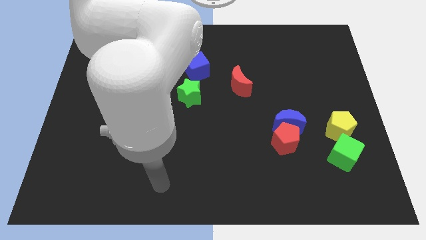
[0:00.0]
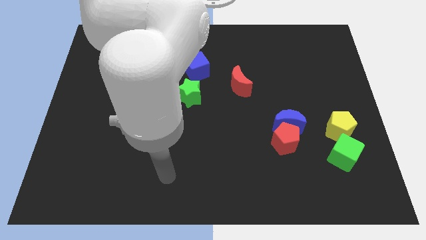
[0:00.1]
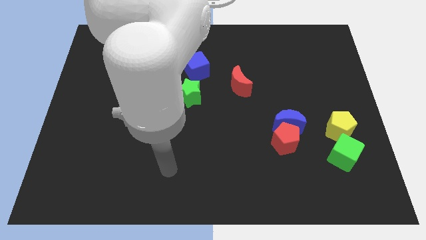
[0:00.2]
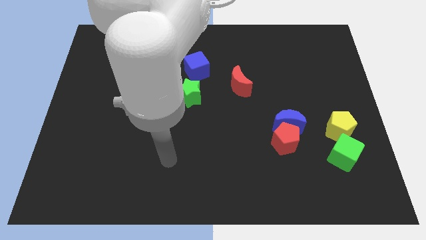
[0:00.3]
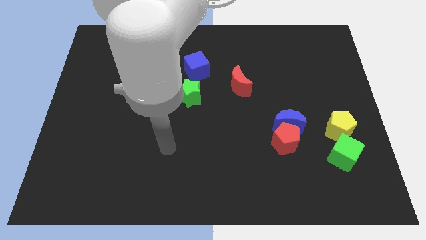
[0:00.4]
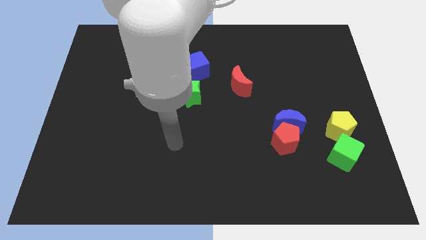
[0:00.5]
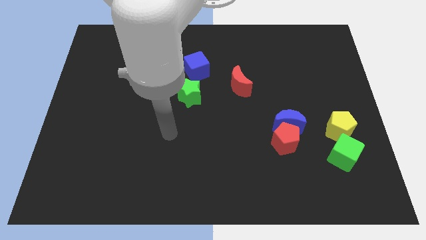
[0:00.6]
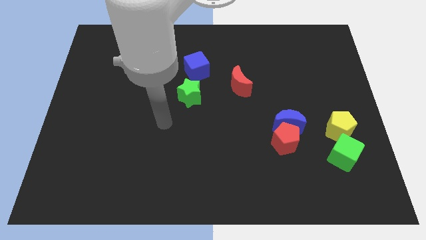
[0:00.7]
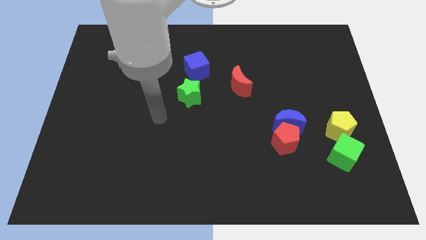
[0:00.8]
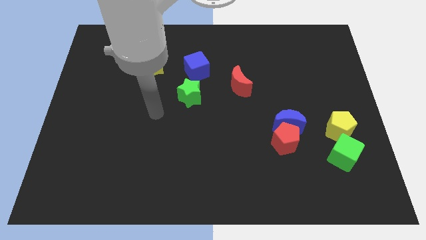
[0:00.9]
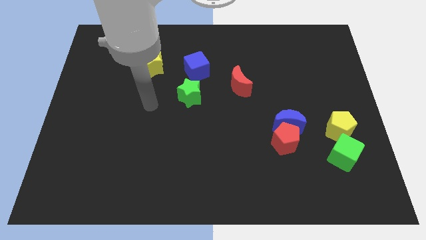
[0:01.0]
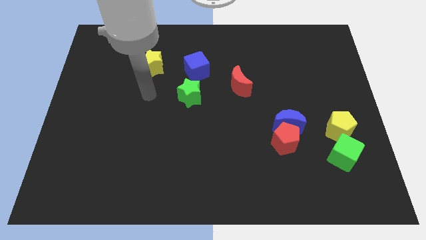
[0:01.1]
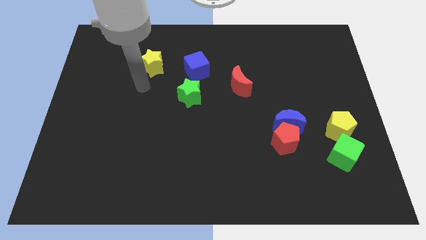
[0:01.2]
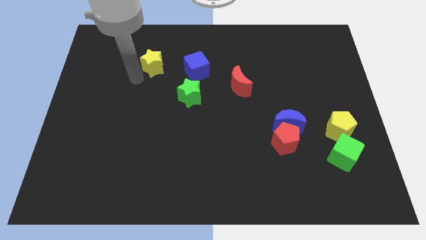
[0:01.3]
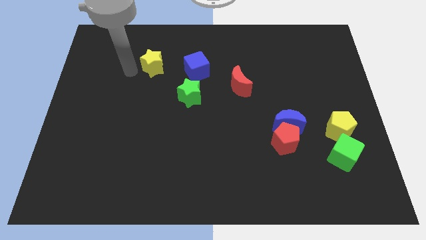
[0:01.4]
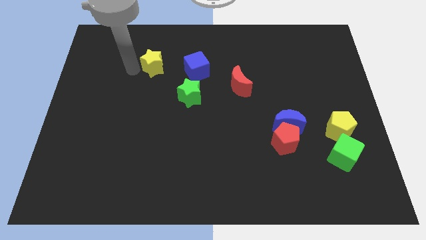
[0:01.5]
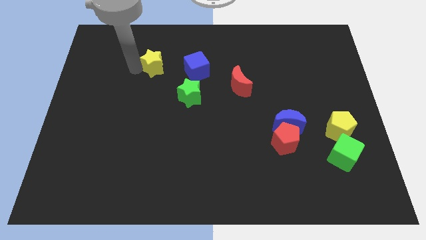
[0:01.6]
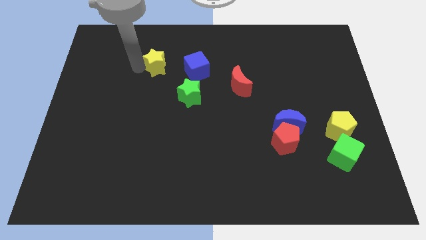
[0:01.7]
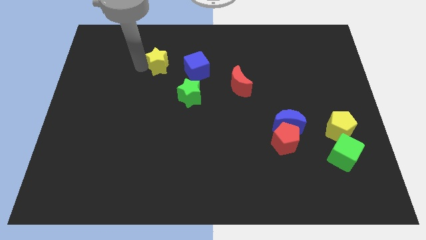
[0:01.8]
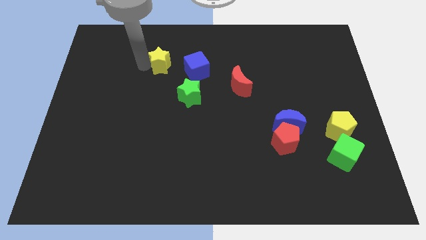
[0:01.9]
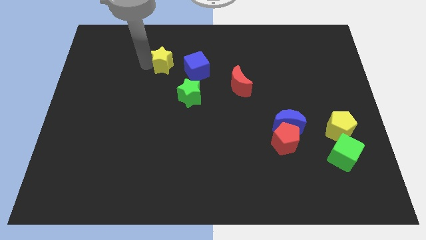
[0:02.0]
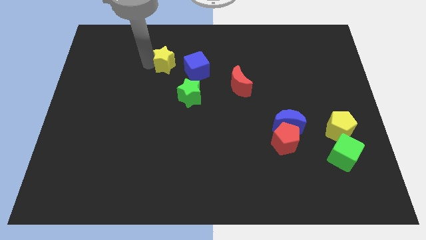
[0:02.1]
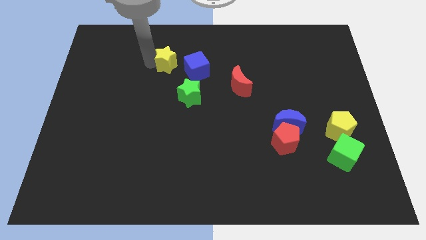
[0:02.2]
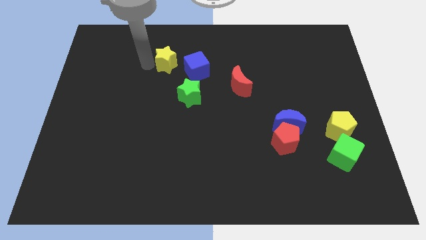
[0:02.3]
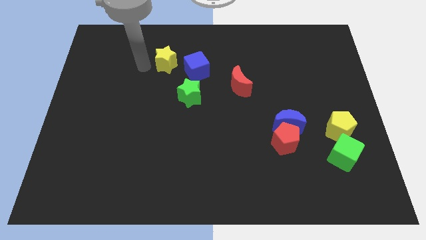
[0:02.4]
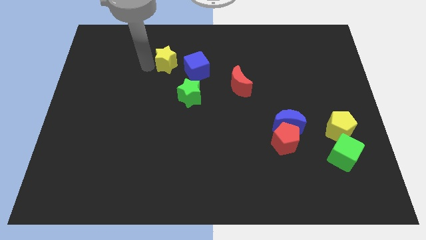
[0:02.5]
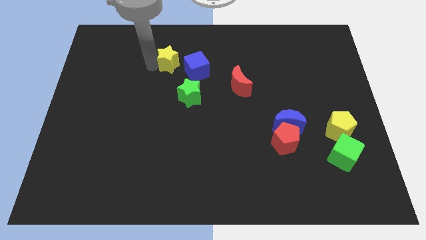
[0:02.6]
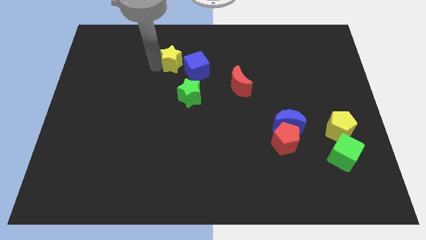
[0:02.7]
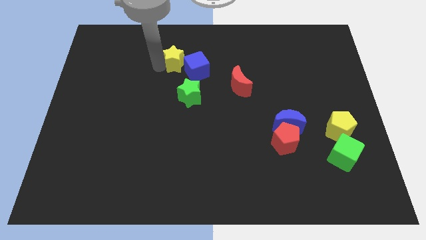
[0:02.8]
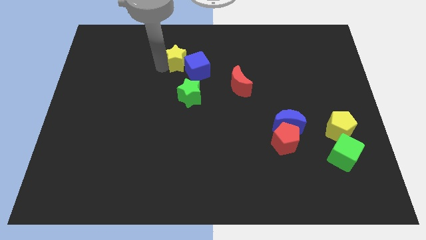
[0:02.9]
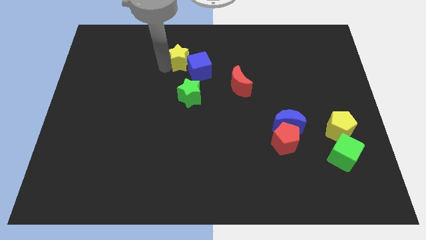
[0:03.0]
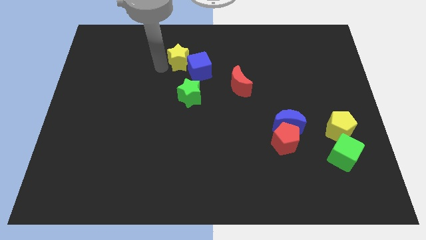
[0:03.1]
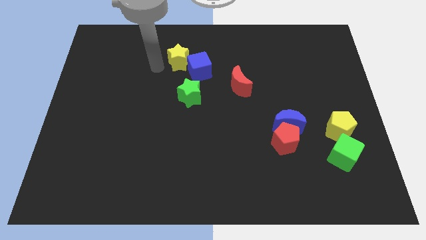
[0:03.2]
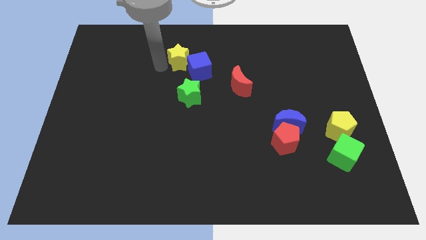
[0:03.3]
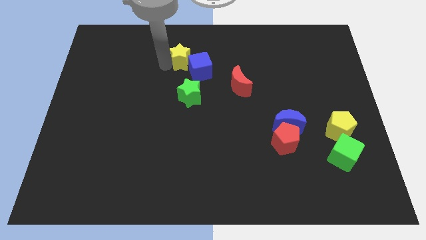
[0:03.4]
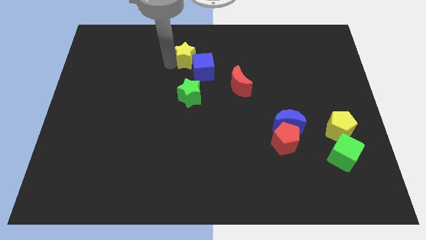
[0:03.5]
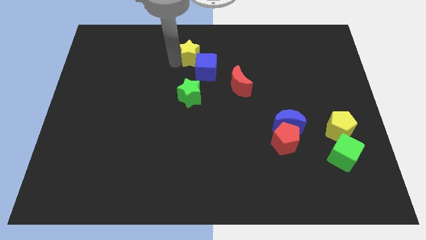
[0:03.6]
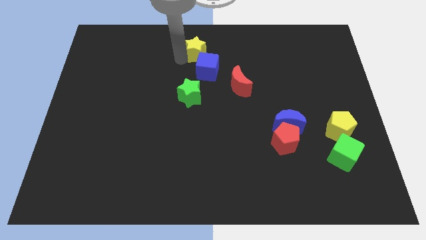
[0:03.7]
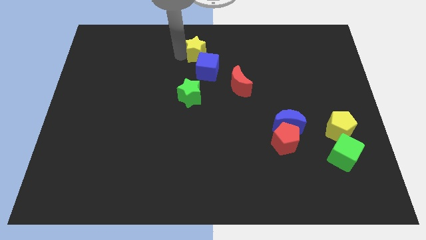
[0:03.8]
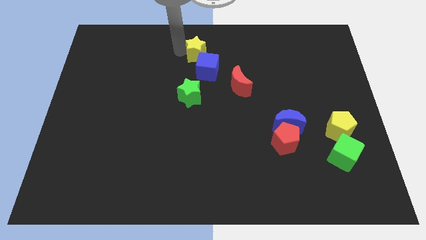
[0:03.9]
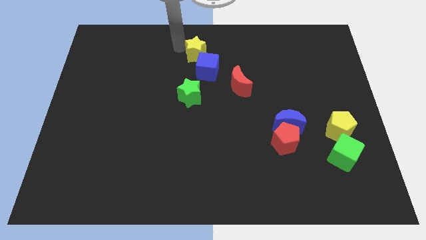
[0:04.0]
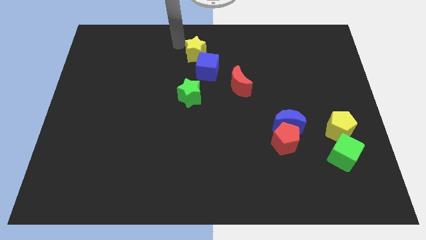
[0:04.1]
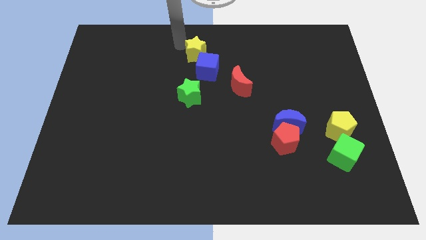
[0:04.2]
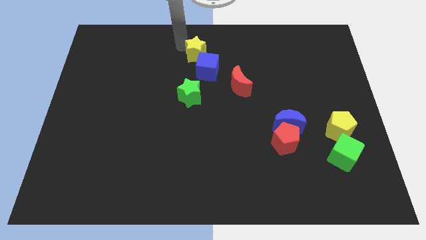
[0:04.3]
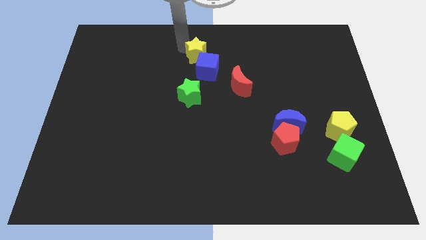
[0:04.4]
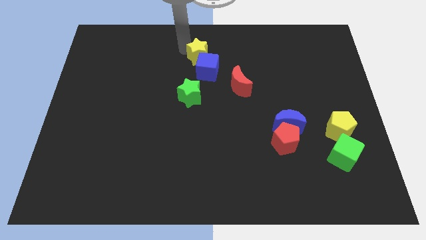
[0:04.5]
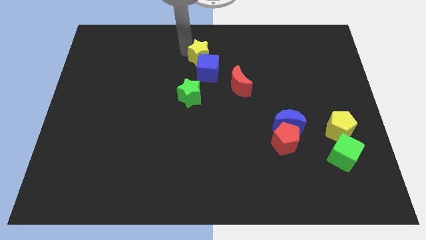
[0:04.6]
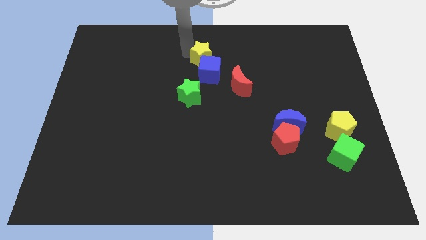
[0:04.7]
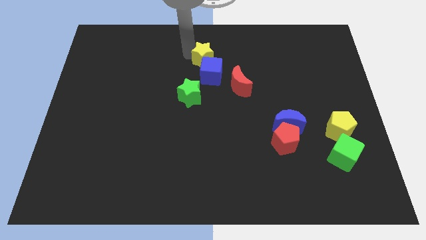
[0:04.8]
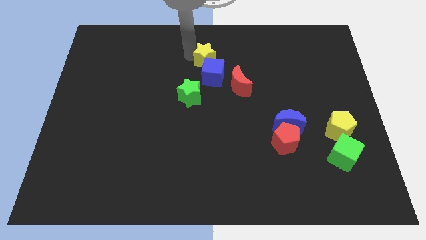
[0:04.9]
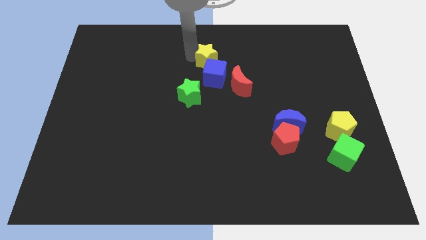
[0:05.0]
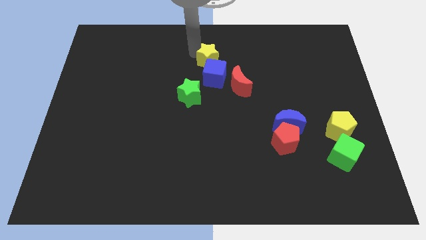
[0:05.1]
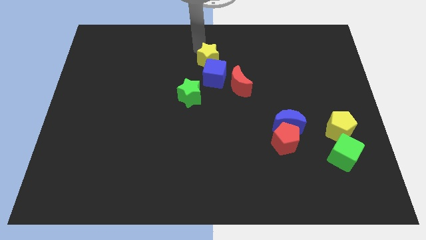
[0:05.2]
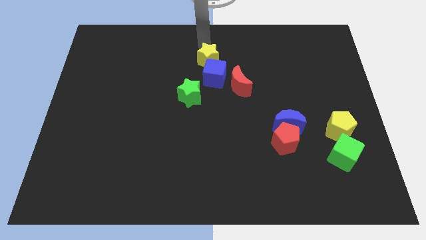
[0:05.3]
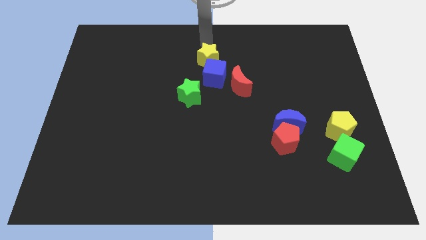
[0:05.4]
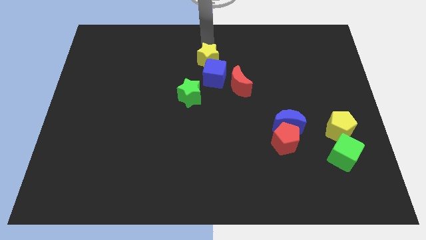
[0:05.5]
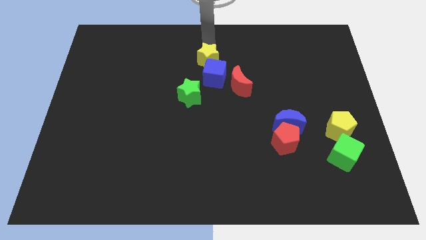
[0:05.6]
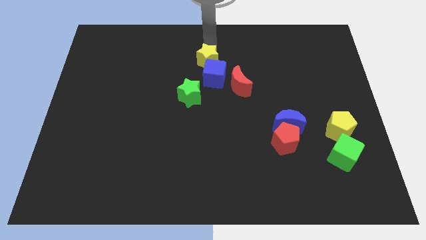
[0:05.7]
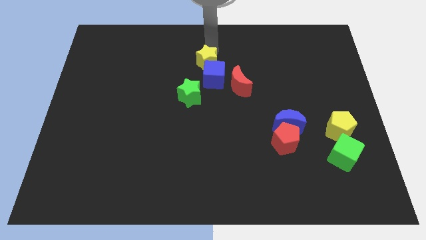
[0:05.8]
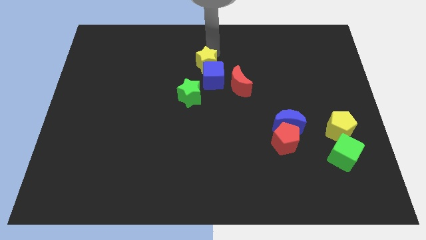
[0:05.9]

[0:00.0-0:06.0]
put the yellow star to the center
